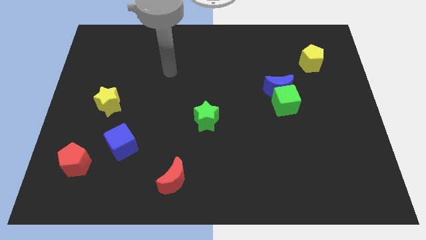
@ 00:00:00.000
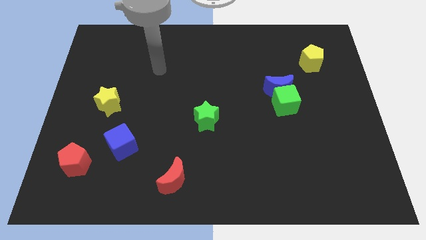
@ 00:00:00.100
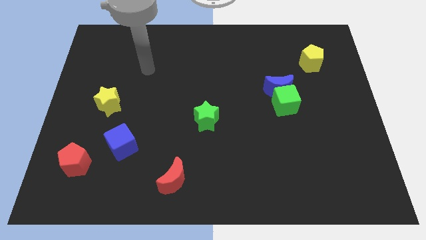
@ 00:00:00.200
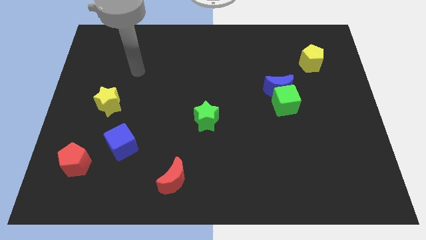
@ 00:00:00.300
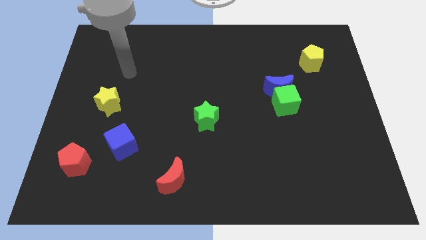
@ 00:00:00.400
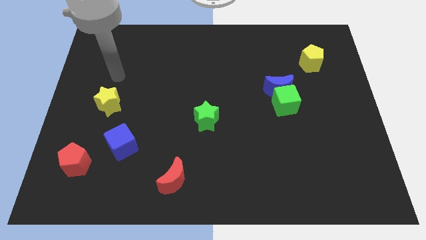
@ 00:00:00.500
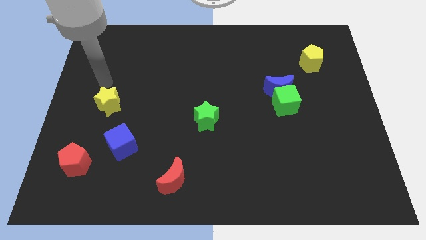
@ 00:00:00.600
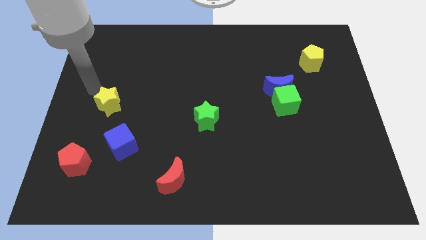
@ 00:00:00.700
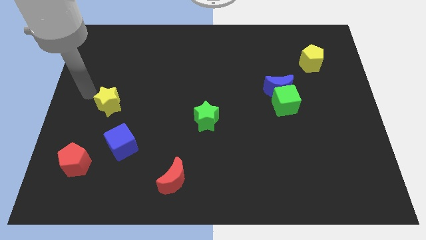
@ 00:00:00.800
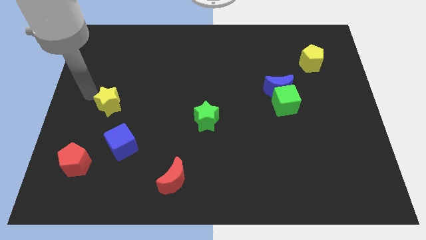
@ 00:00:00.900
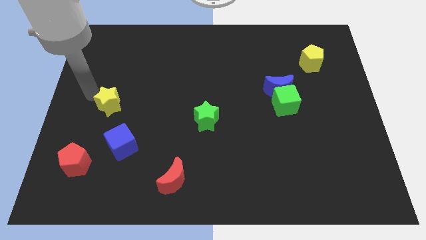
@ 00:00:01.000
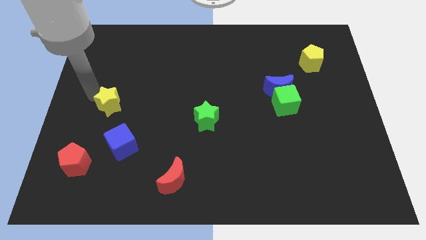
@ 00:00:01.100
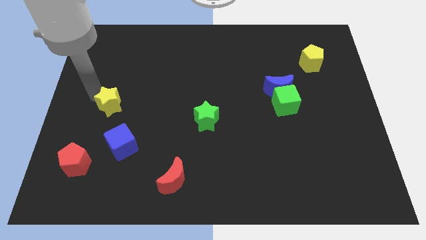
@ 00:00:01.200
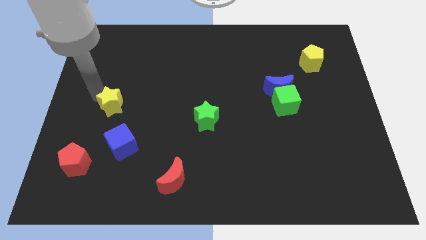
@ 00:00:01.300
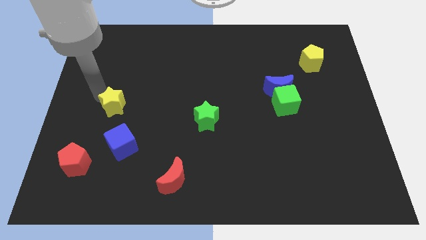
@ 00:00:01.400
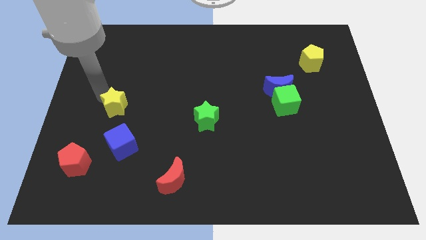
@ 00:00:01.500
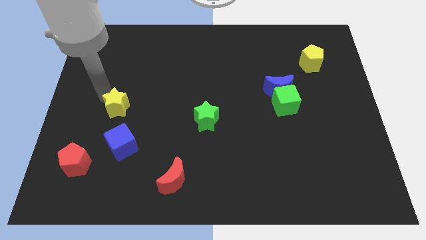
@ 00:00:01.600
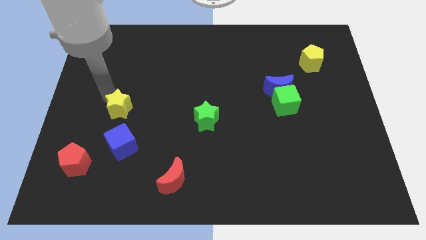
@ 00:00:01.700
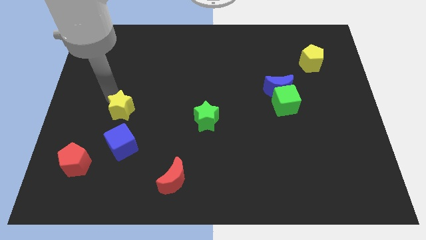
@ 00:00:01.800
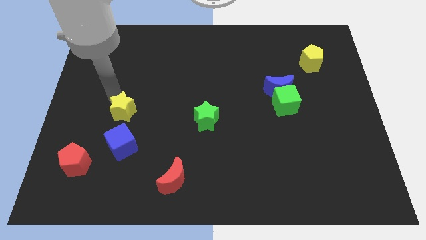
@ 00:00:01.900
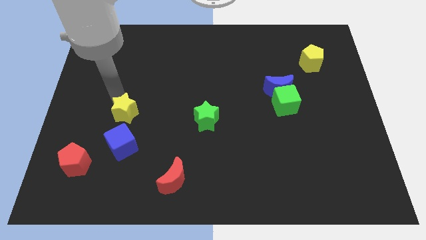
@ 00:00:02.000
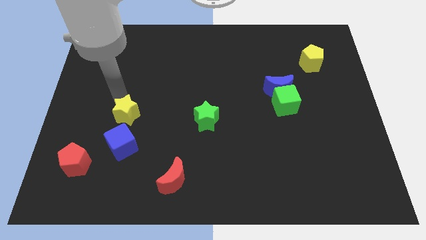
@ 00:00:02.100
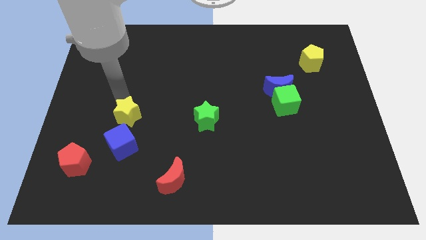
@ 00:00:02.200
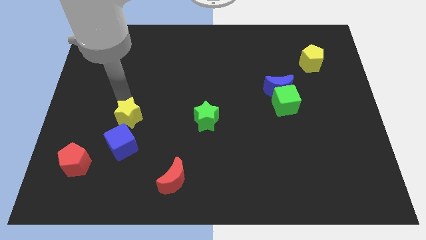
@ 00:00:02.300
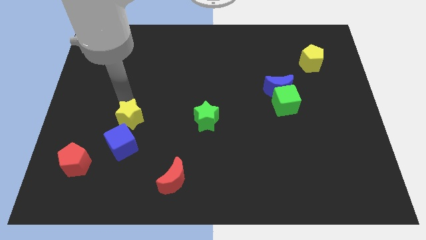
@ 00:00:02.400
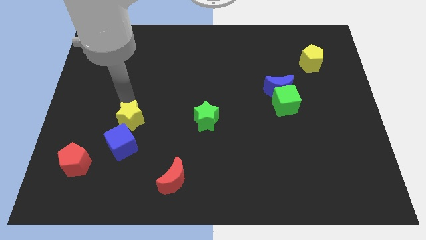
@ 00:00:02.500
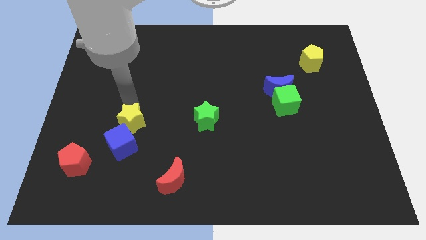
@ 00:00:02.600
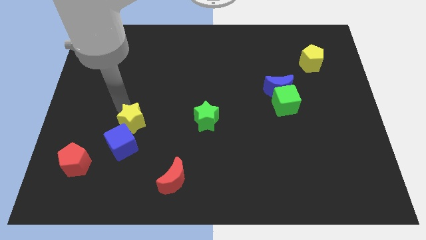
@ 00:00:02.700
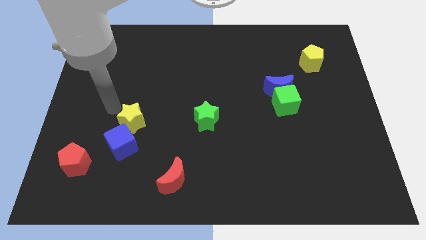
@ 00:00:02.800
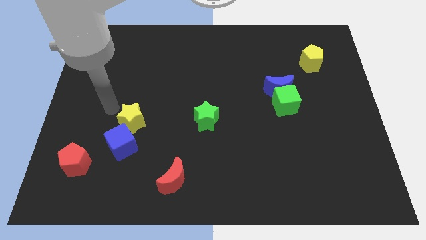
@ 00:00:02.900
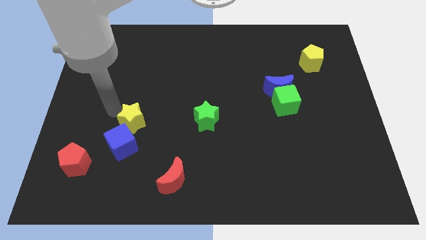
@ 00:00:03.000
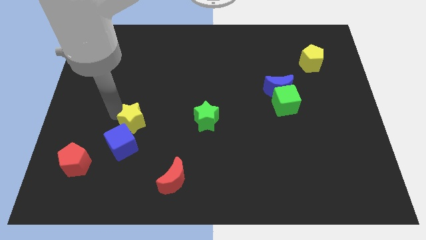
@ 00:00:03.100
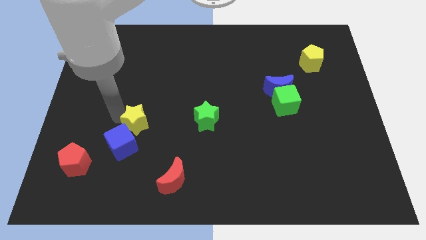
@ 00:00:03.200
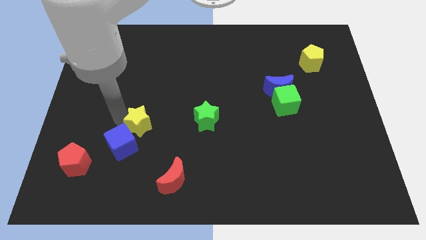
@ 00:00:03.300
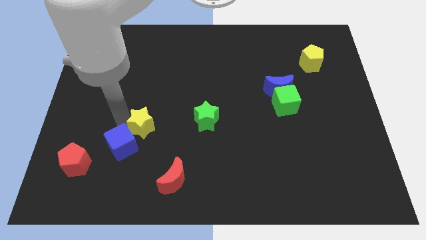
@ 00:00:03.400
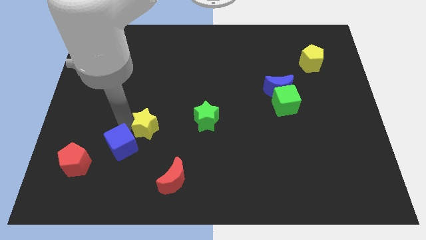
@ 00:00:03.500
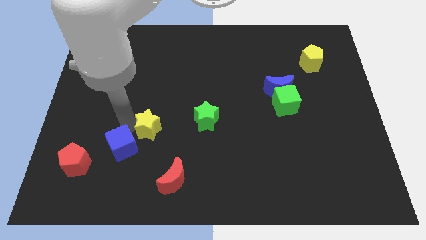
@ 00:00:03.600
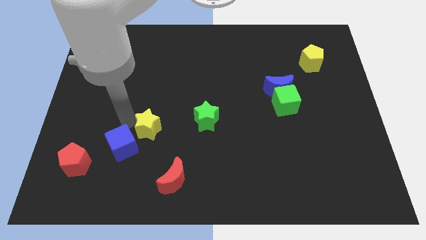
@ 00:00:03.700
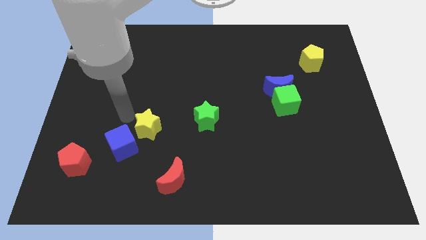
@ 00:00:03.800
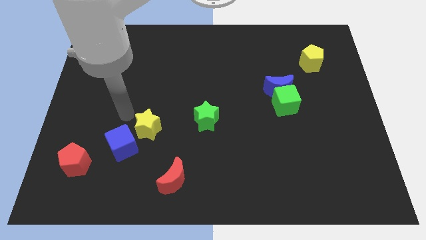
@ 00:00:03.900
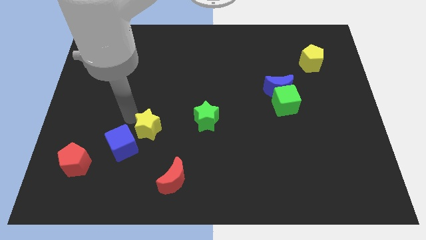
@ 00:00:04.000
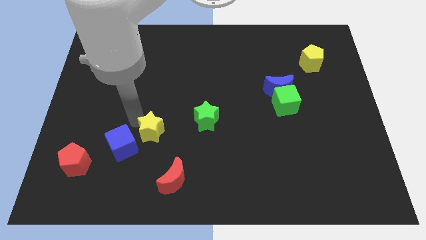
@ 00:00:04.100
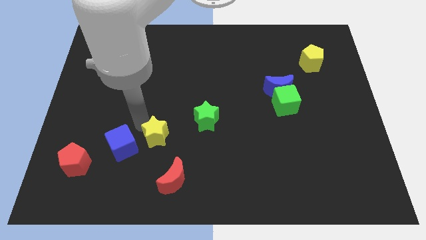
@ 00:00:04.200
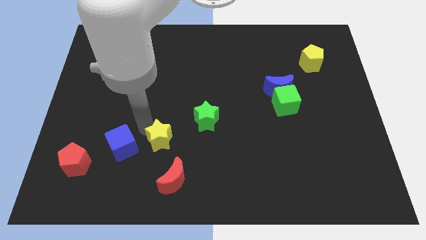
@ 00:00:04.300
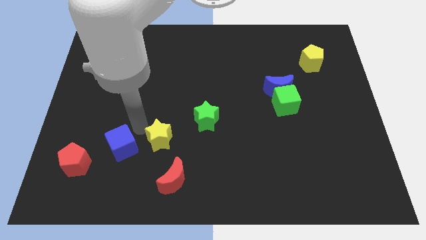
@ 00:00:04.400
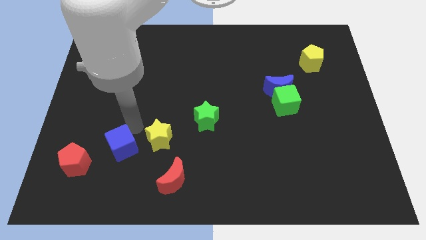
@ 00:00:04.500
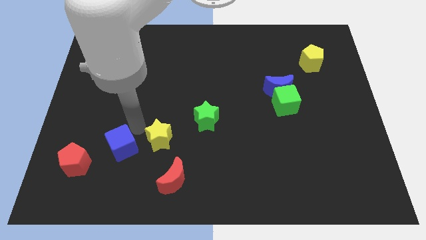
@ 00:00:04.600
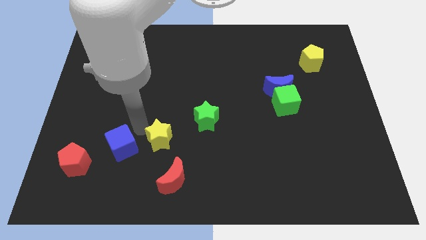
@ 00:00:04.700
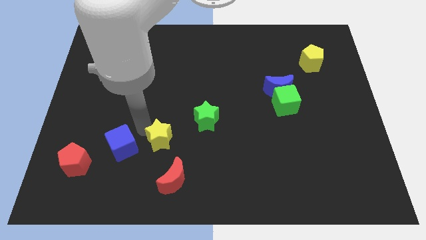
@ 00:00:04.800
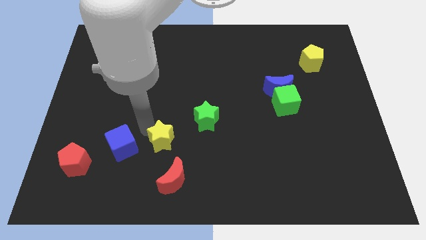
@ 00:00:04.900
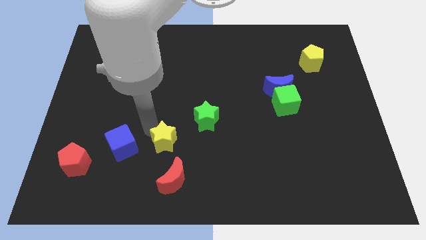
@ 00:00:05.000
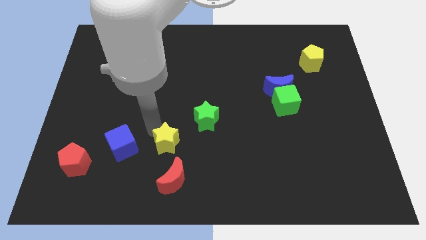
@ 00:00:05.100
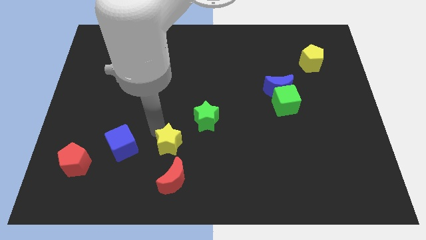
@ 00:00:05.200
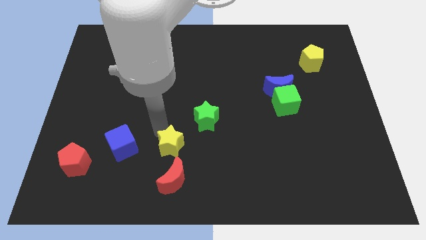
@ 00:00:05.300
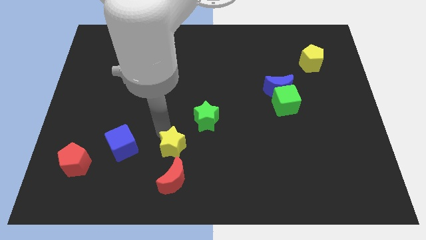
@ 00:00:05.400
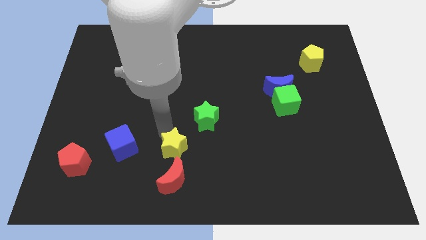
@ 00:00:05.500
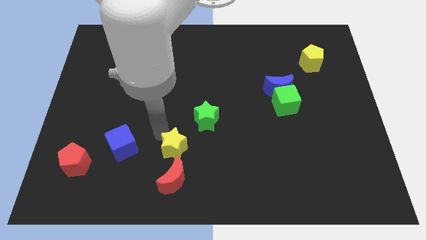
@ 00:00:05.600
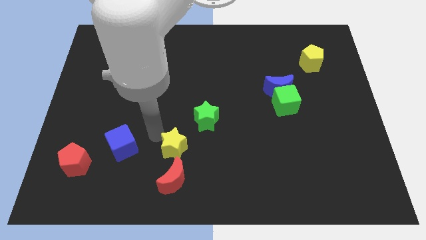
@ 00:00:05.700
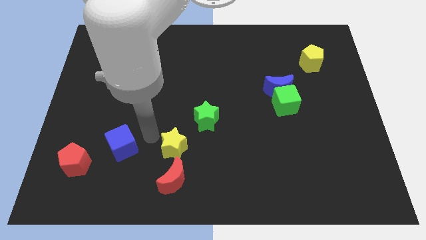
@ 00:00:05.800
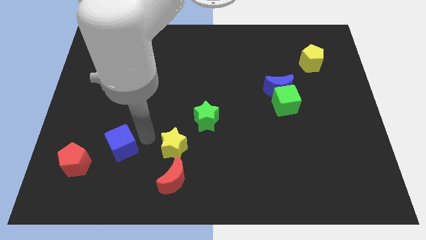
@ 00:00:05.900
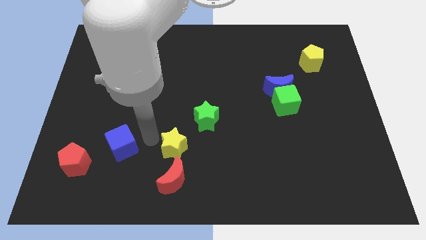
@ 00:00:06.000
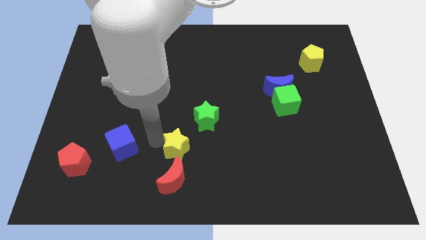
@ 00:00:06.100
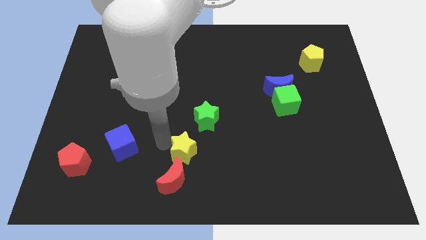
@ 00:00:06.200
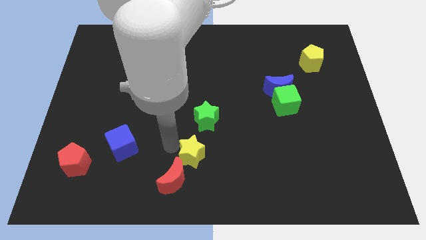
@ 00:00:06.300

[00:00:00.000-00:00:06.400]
move the yellow star to the bottom of the green star

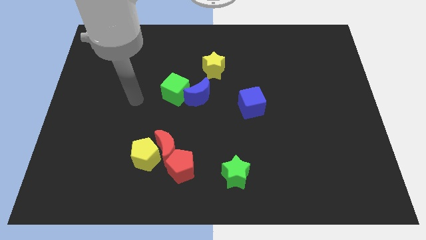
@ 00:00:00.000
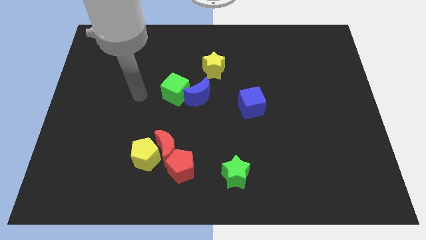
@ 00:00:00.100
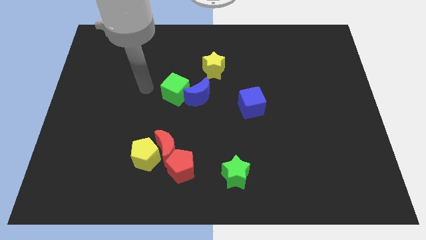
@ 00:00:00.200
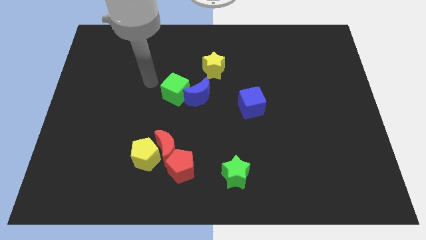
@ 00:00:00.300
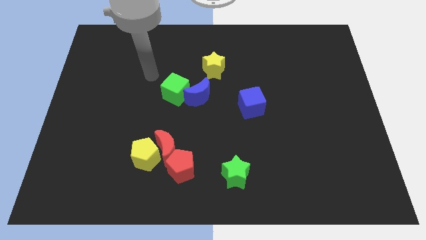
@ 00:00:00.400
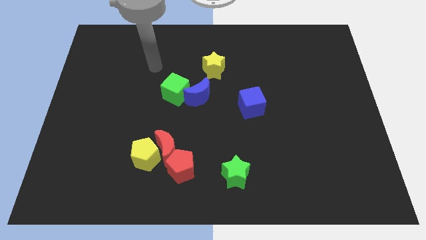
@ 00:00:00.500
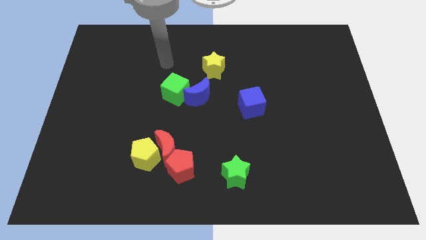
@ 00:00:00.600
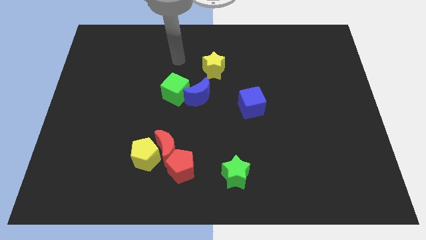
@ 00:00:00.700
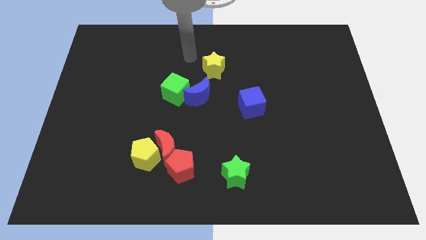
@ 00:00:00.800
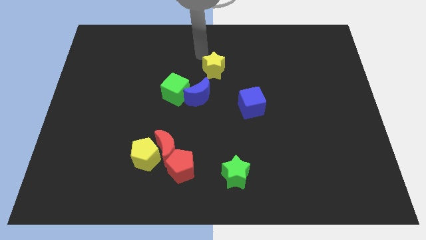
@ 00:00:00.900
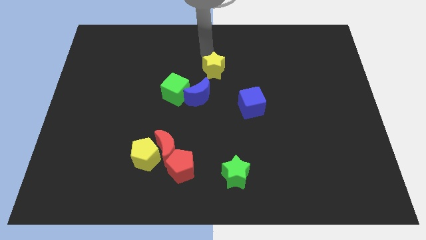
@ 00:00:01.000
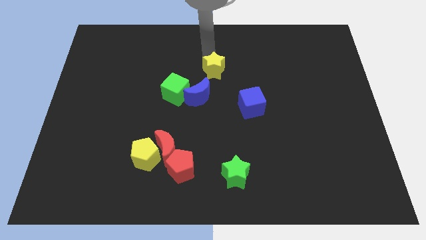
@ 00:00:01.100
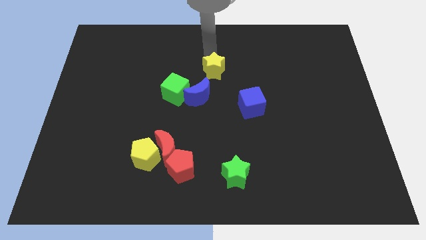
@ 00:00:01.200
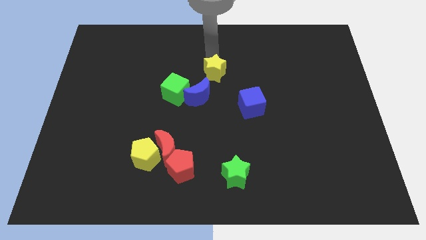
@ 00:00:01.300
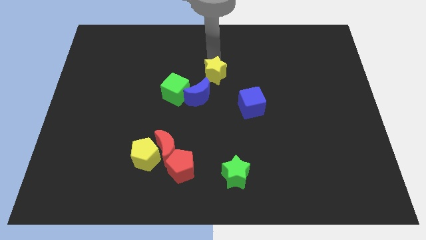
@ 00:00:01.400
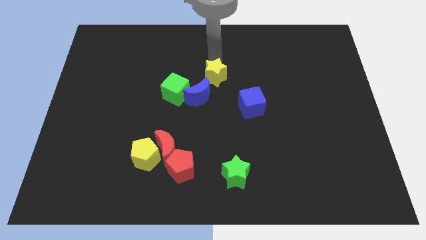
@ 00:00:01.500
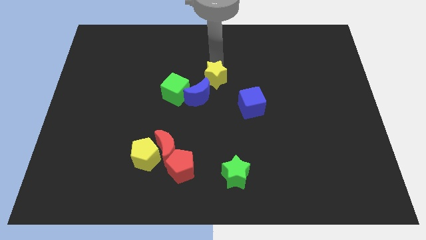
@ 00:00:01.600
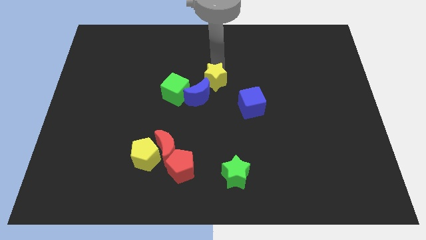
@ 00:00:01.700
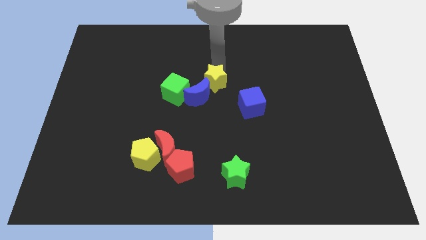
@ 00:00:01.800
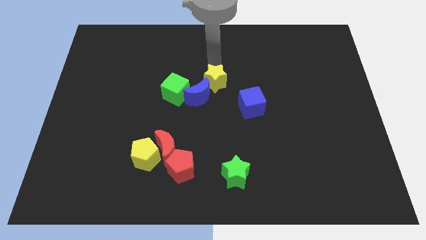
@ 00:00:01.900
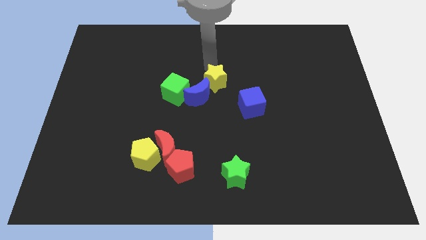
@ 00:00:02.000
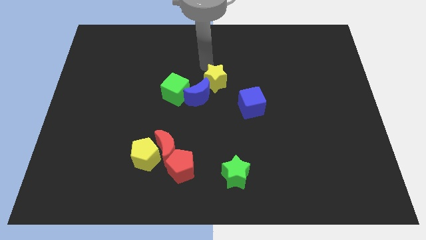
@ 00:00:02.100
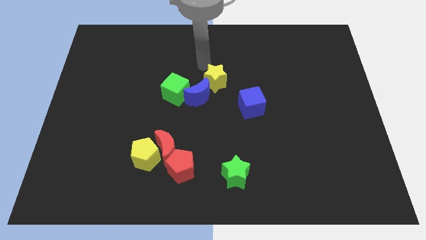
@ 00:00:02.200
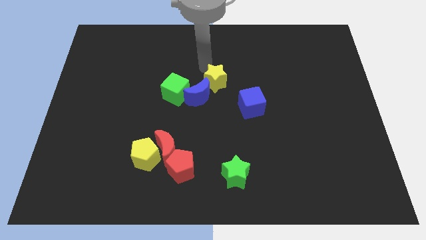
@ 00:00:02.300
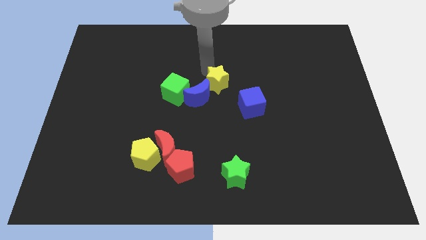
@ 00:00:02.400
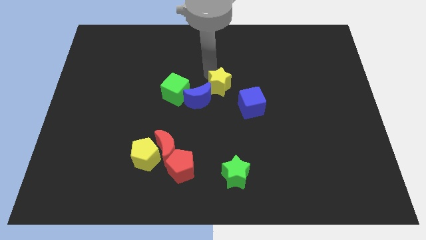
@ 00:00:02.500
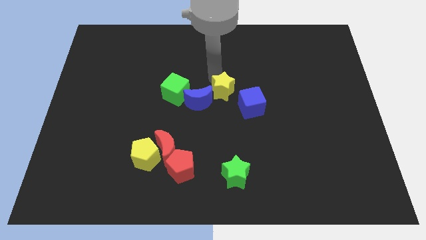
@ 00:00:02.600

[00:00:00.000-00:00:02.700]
put the yellow star just left of the blue cube
